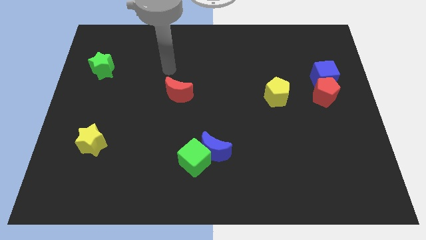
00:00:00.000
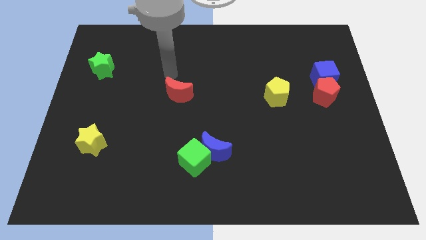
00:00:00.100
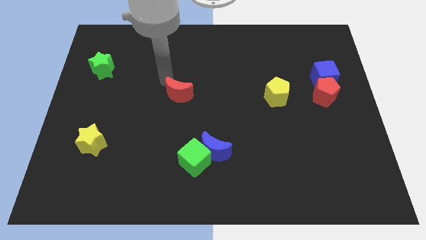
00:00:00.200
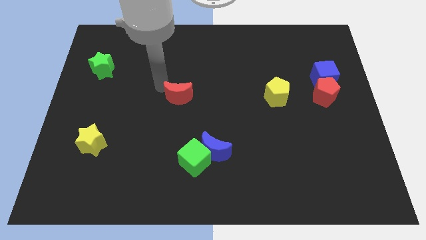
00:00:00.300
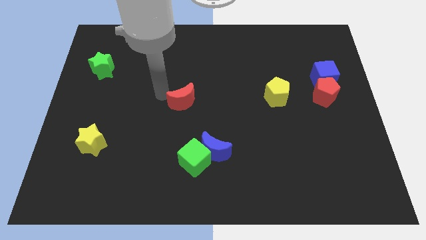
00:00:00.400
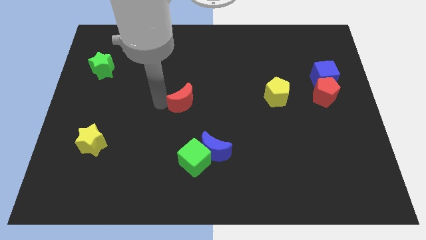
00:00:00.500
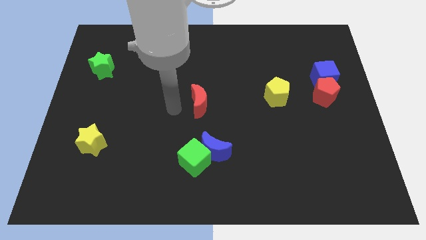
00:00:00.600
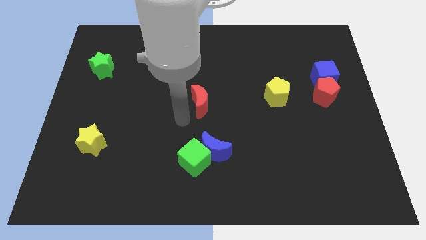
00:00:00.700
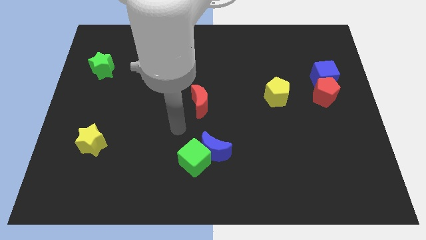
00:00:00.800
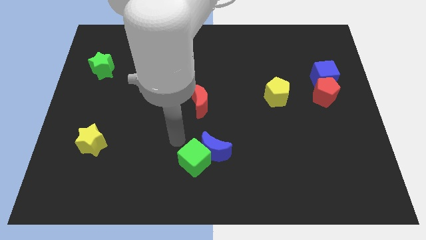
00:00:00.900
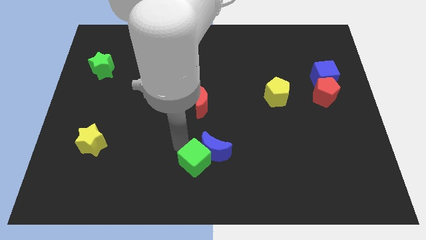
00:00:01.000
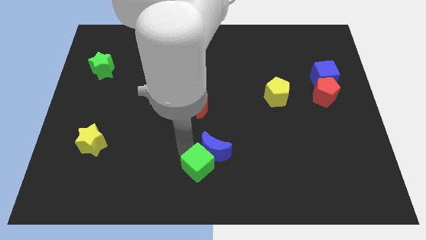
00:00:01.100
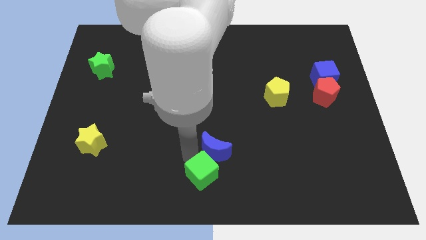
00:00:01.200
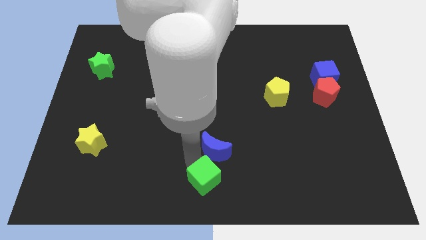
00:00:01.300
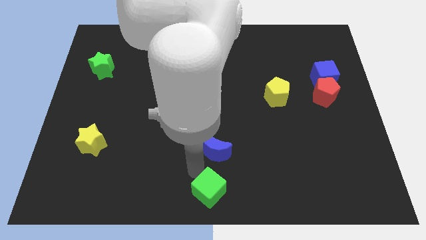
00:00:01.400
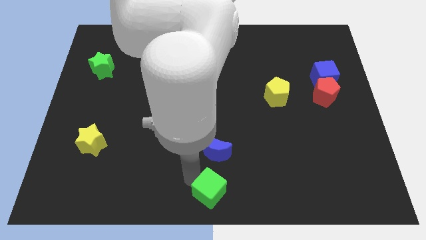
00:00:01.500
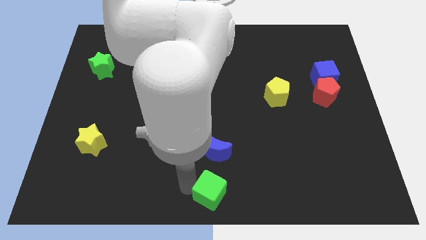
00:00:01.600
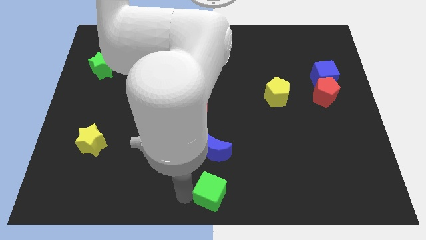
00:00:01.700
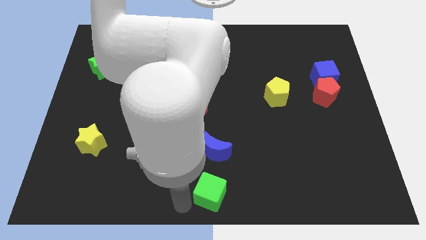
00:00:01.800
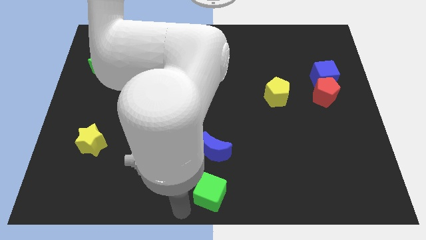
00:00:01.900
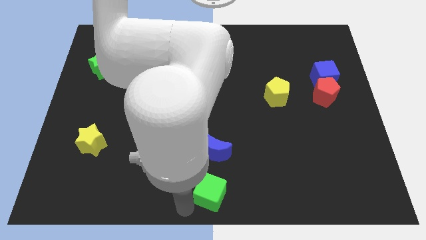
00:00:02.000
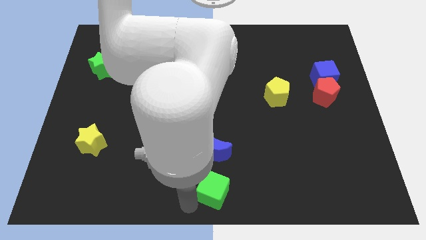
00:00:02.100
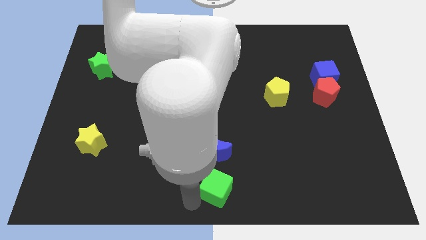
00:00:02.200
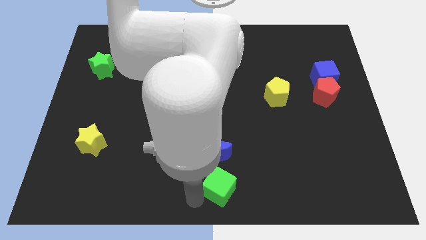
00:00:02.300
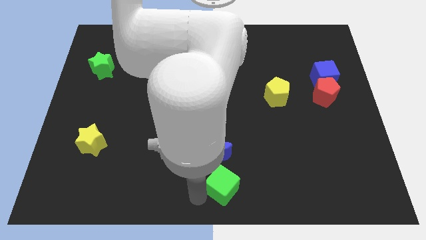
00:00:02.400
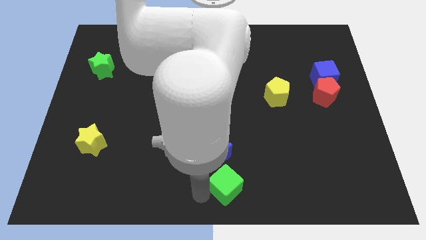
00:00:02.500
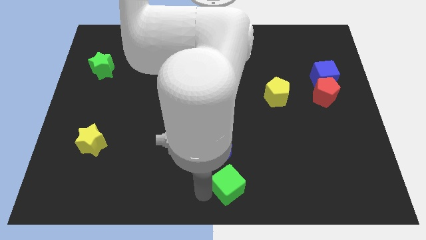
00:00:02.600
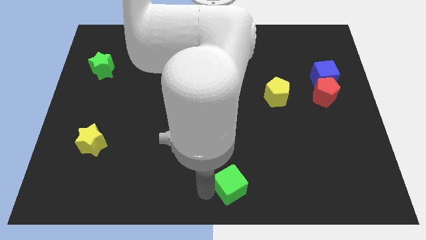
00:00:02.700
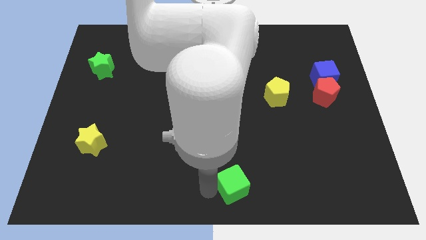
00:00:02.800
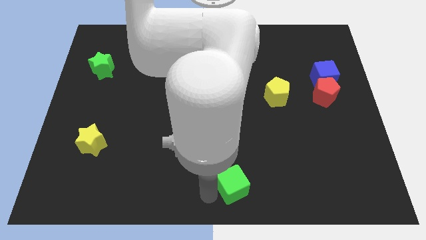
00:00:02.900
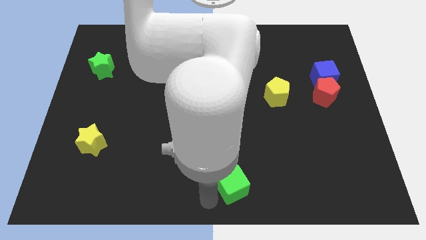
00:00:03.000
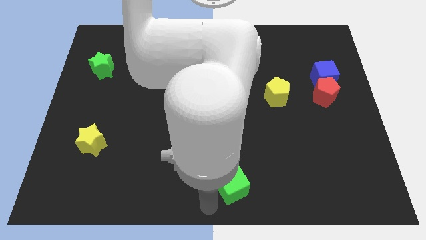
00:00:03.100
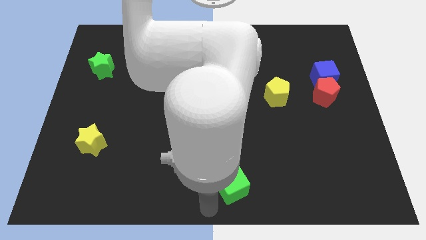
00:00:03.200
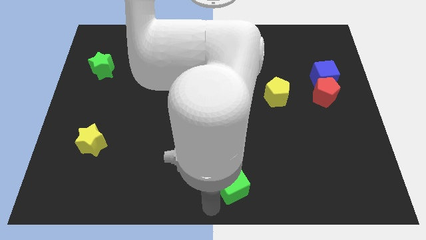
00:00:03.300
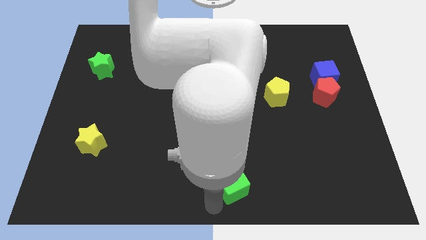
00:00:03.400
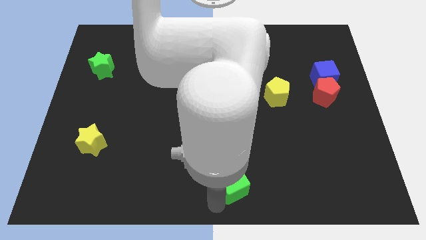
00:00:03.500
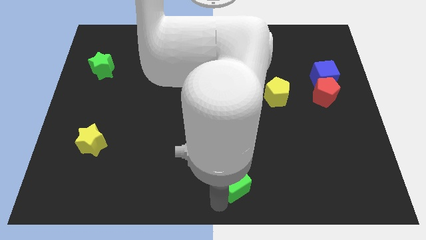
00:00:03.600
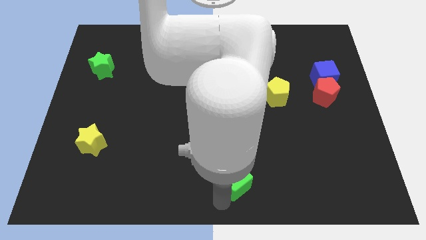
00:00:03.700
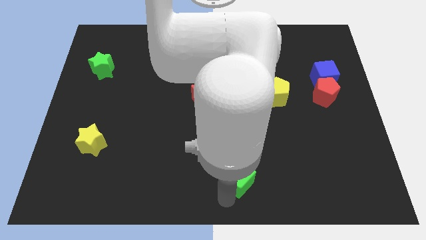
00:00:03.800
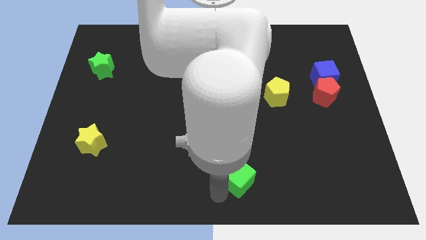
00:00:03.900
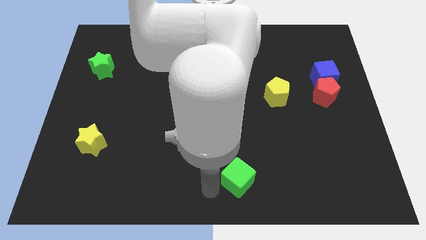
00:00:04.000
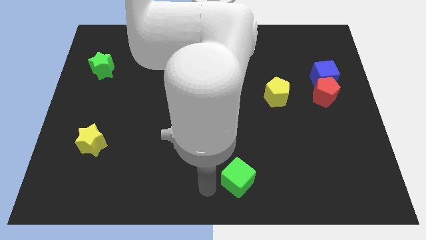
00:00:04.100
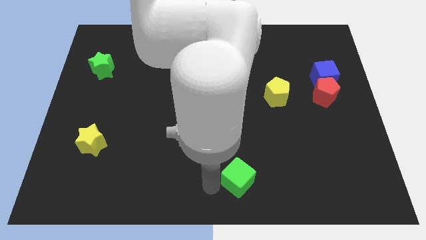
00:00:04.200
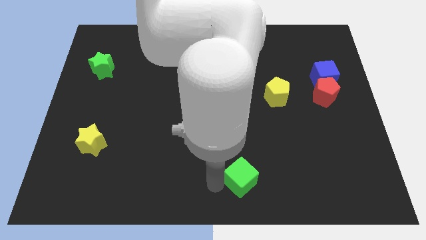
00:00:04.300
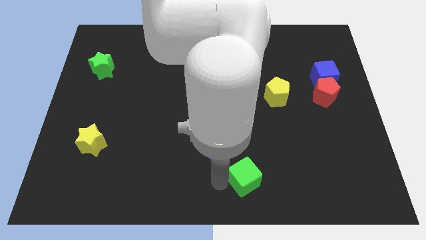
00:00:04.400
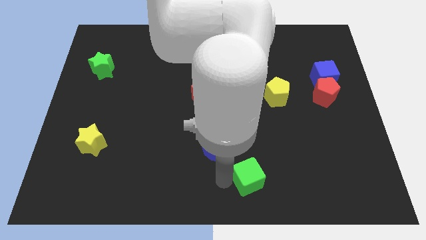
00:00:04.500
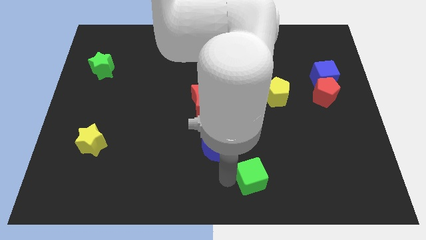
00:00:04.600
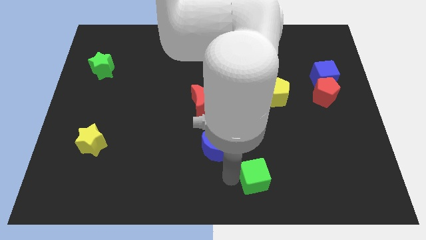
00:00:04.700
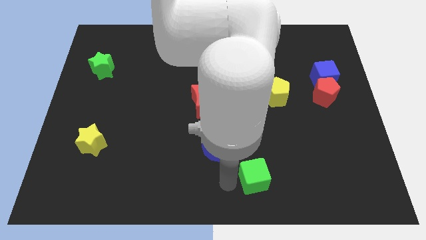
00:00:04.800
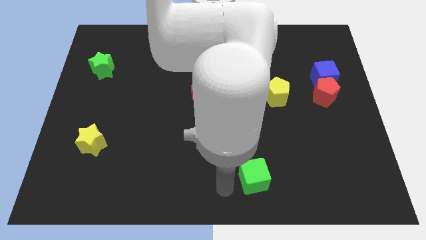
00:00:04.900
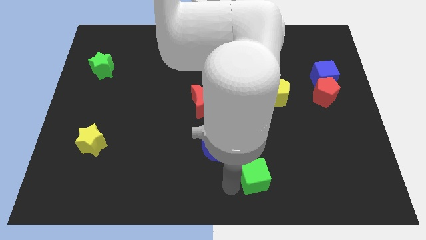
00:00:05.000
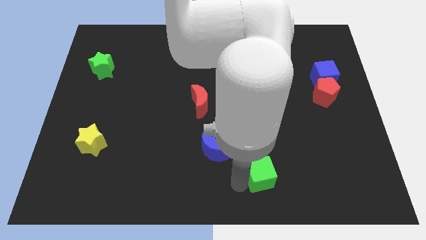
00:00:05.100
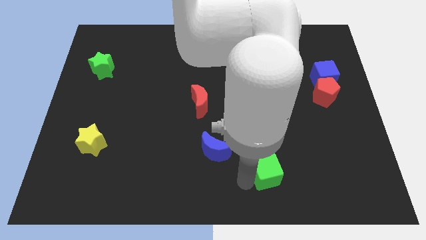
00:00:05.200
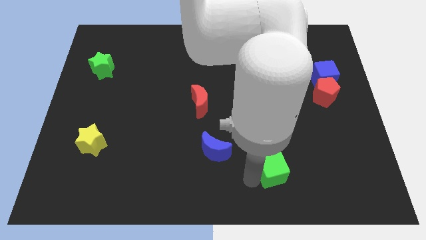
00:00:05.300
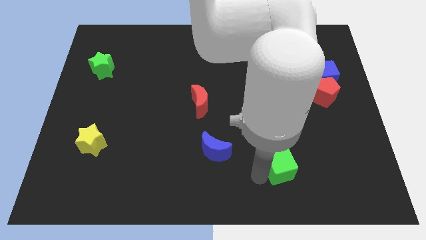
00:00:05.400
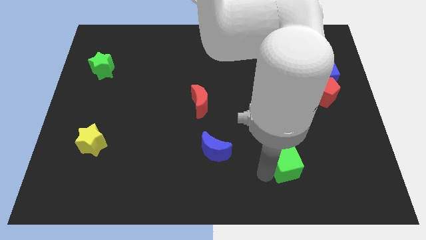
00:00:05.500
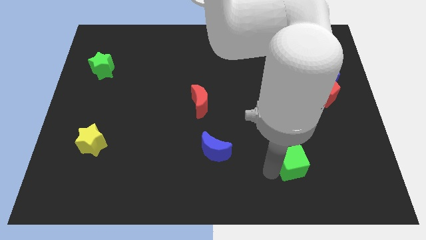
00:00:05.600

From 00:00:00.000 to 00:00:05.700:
push the green cube right

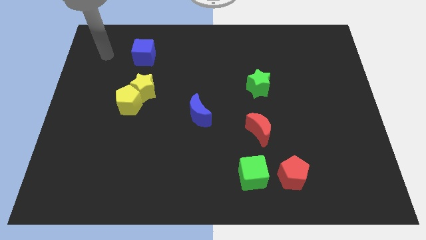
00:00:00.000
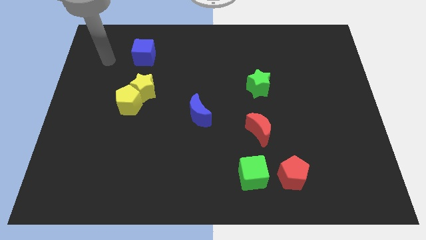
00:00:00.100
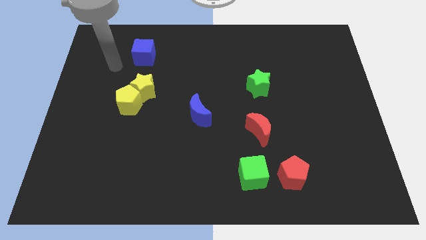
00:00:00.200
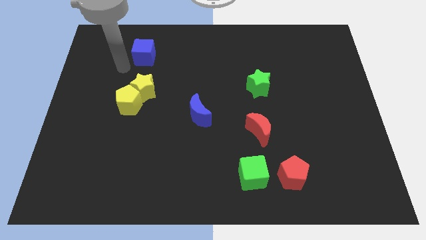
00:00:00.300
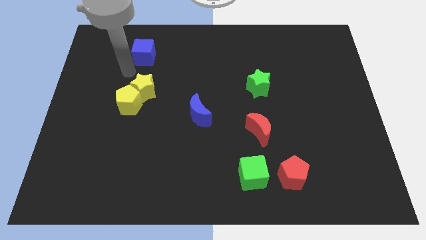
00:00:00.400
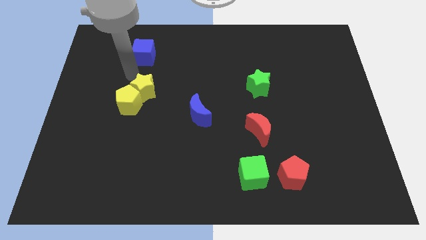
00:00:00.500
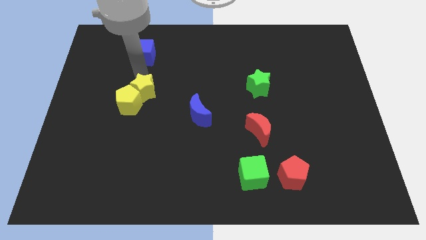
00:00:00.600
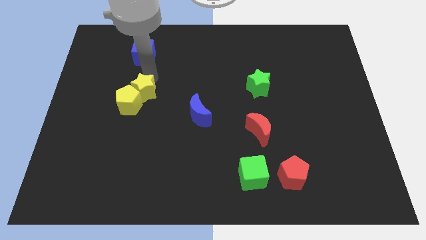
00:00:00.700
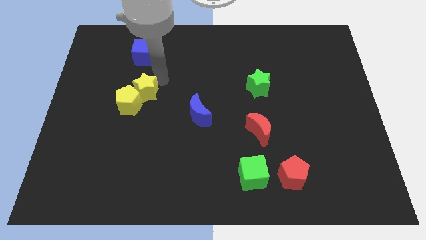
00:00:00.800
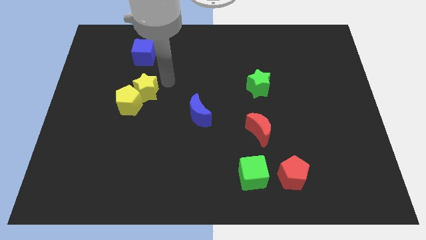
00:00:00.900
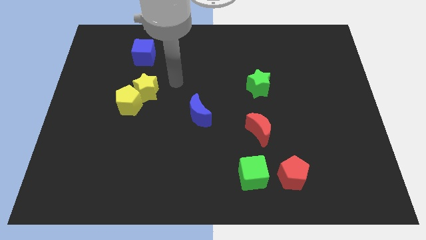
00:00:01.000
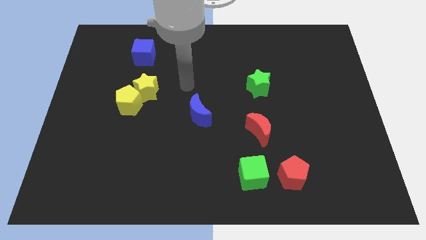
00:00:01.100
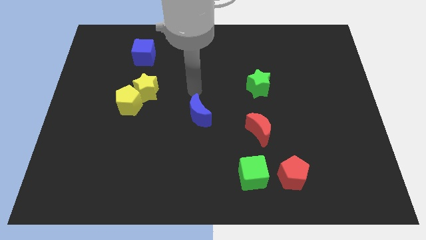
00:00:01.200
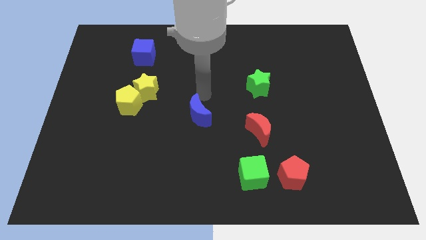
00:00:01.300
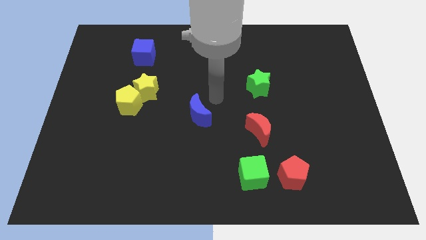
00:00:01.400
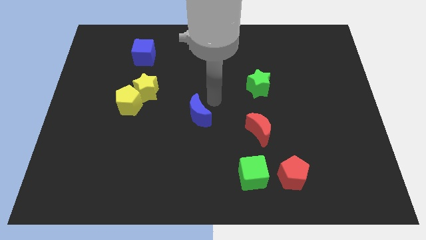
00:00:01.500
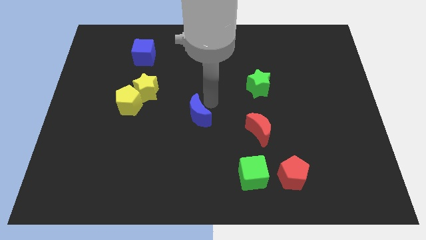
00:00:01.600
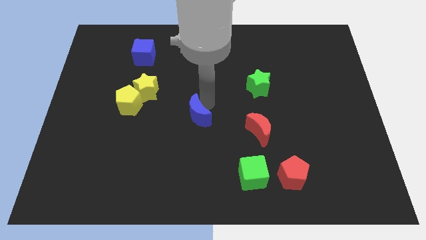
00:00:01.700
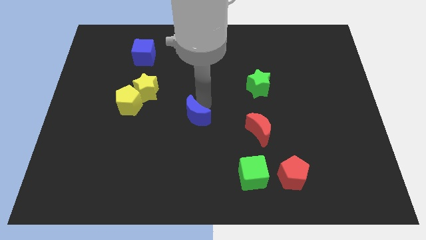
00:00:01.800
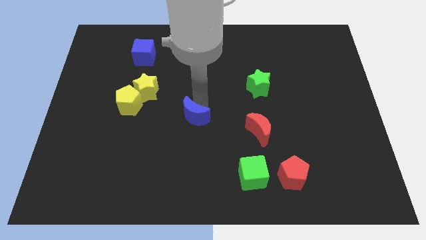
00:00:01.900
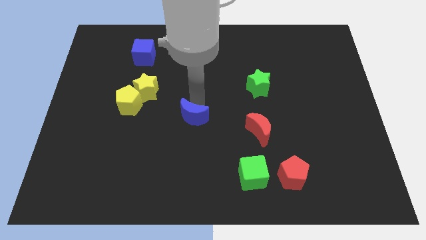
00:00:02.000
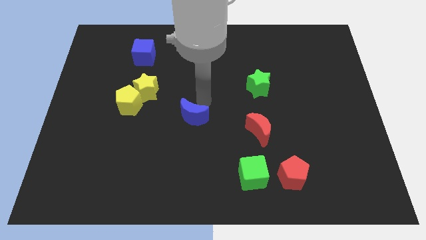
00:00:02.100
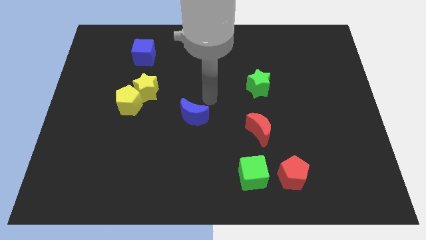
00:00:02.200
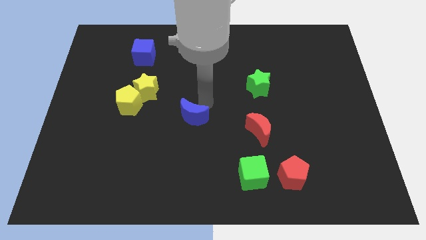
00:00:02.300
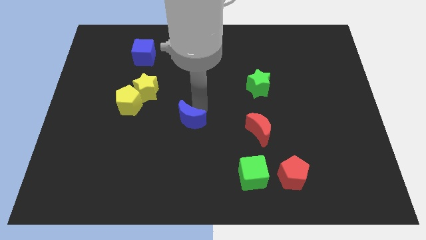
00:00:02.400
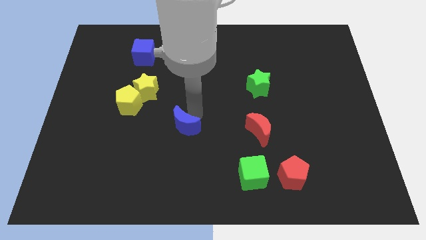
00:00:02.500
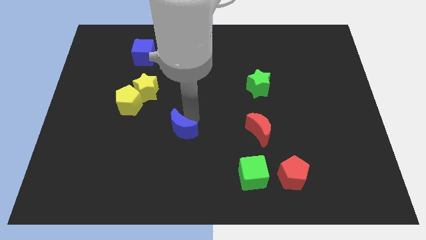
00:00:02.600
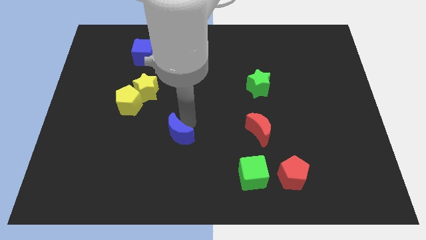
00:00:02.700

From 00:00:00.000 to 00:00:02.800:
push the blue moon down and then to the left slightly

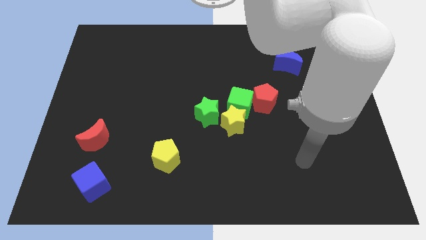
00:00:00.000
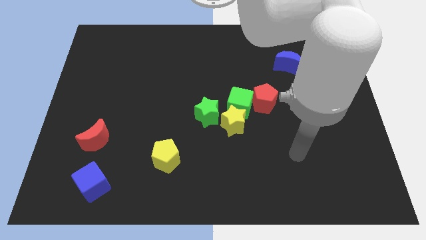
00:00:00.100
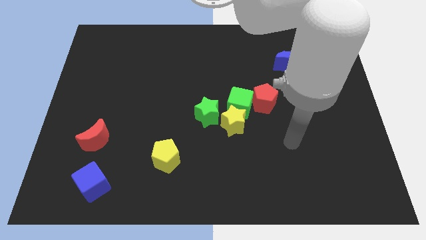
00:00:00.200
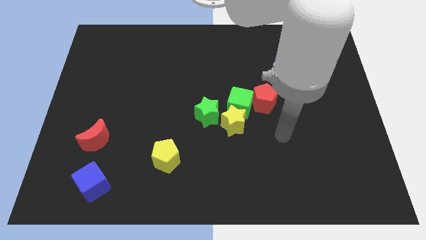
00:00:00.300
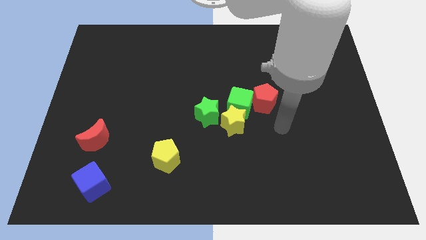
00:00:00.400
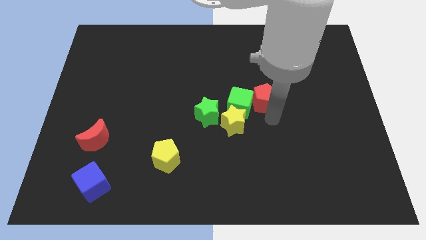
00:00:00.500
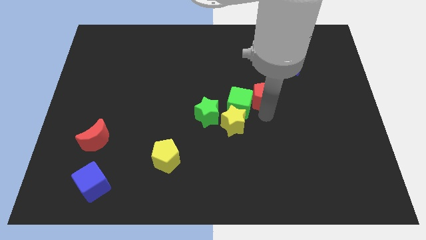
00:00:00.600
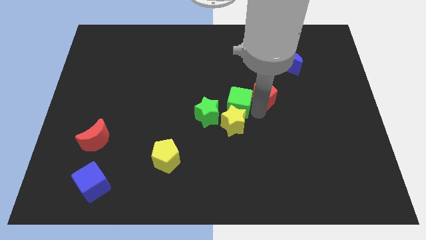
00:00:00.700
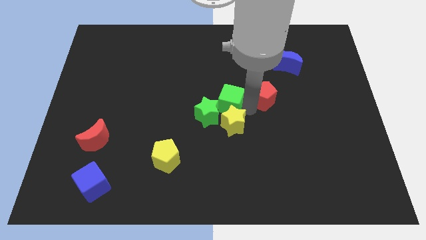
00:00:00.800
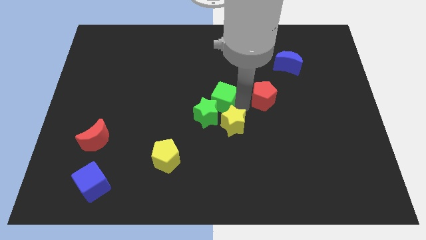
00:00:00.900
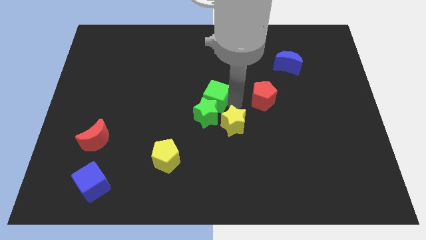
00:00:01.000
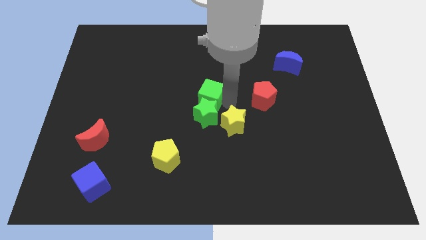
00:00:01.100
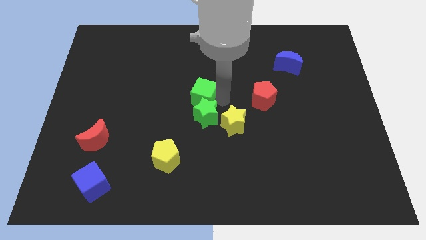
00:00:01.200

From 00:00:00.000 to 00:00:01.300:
move the green cube slightly to the left
